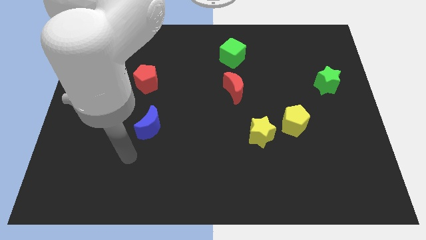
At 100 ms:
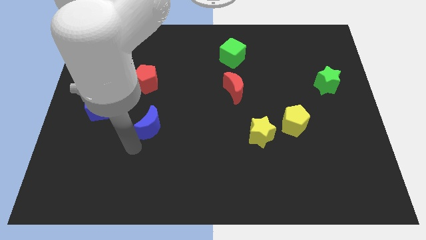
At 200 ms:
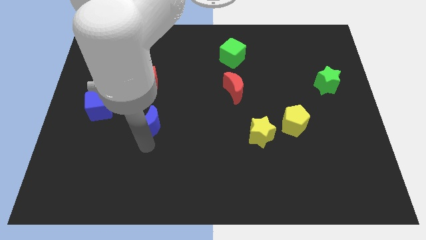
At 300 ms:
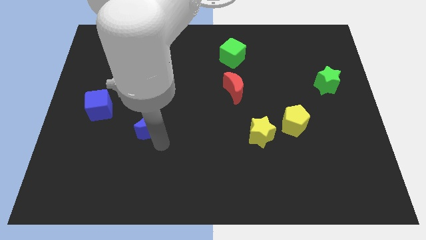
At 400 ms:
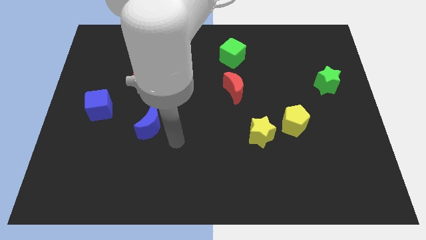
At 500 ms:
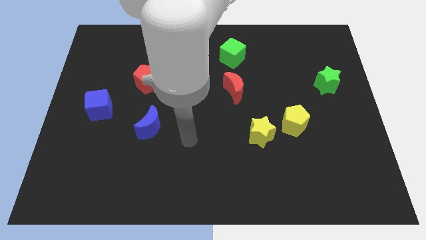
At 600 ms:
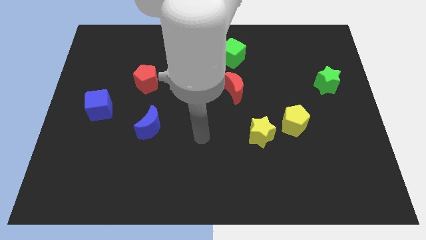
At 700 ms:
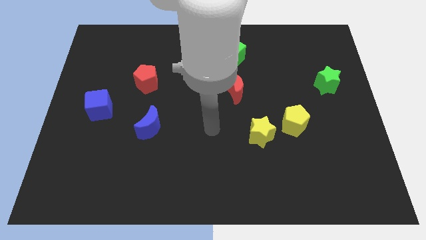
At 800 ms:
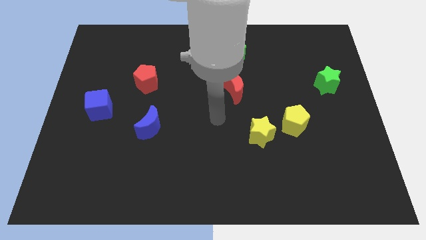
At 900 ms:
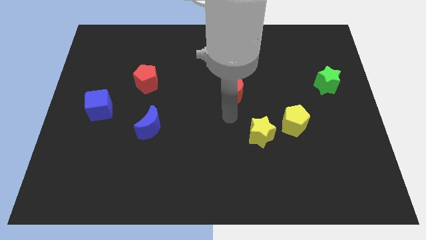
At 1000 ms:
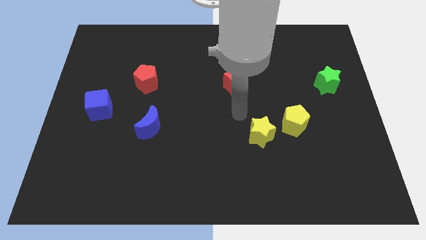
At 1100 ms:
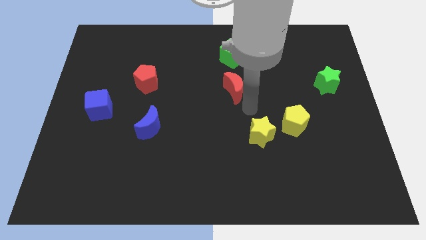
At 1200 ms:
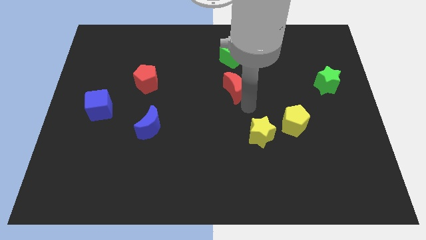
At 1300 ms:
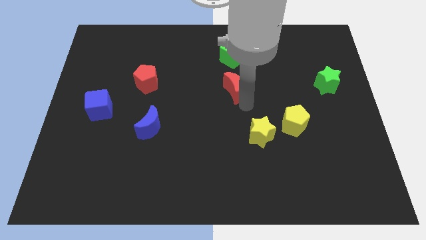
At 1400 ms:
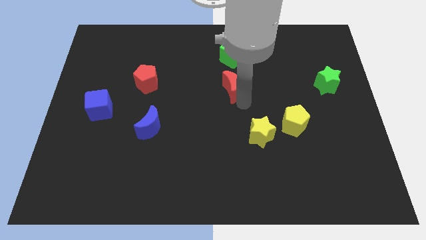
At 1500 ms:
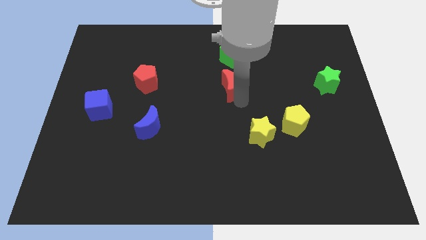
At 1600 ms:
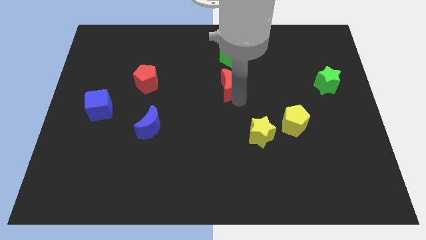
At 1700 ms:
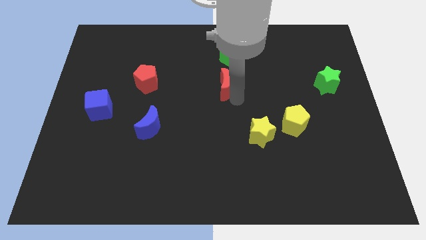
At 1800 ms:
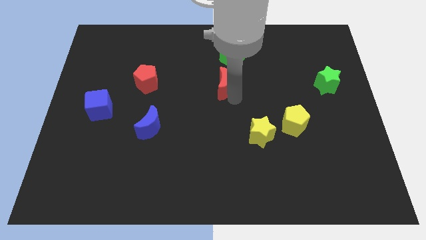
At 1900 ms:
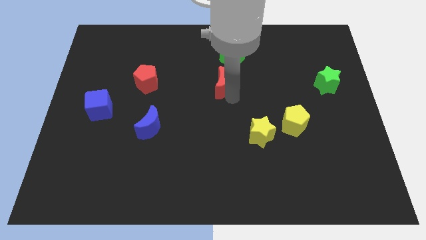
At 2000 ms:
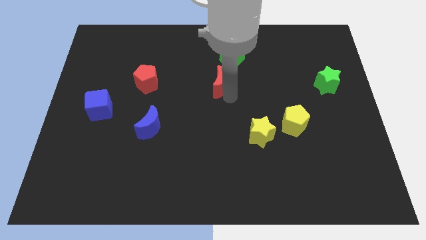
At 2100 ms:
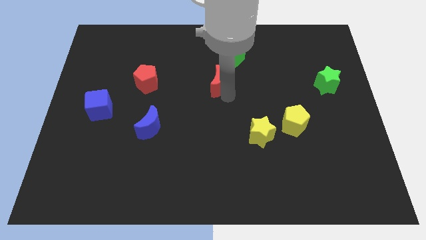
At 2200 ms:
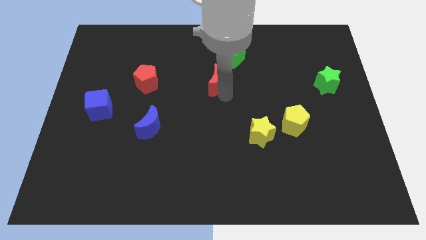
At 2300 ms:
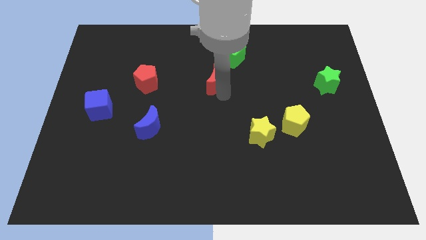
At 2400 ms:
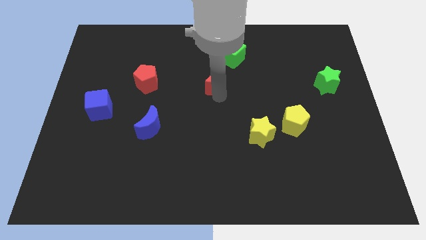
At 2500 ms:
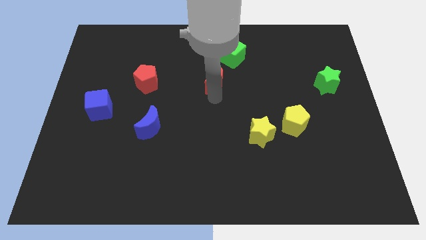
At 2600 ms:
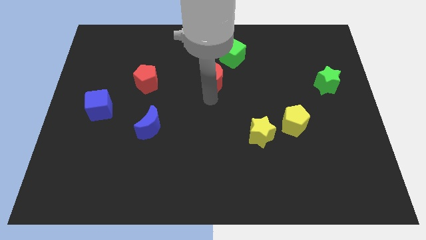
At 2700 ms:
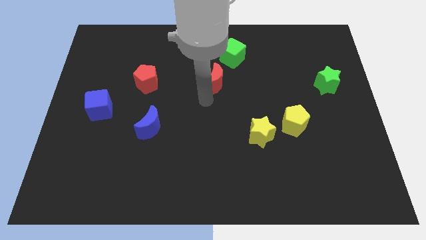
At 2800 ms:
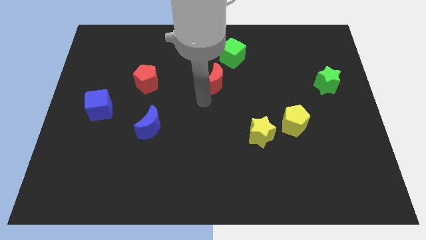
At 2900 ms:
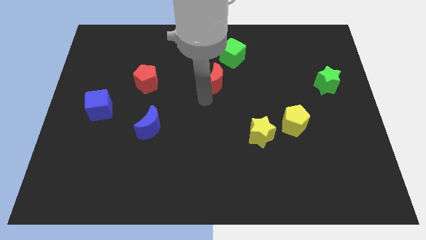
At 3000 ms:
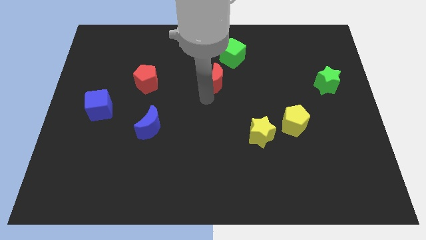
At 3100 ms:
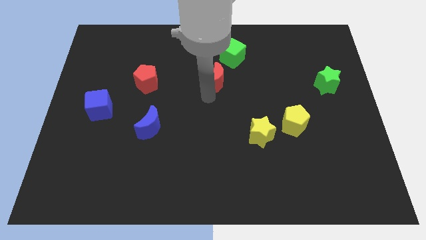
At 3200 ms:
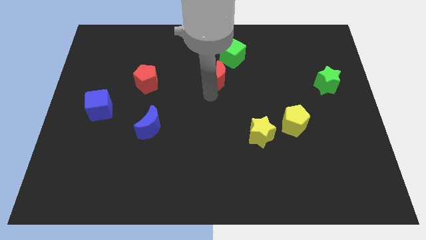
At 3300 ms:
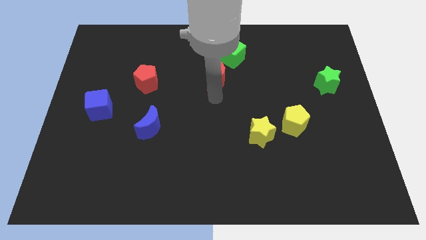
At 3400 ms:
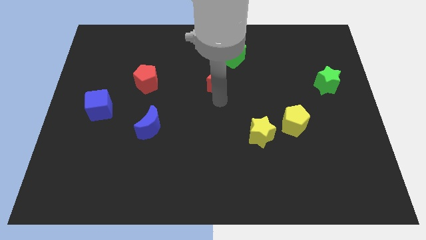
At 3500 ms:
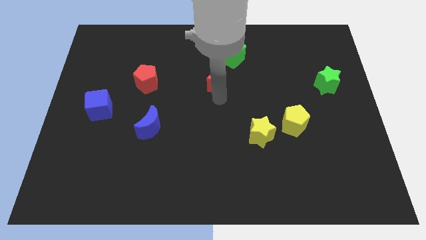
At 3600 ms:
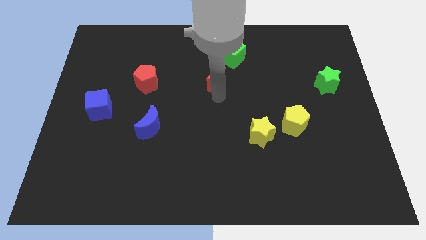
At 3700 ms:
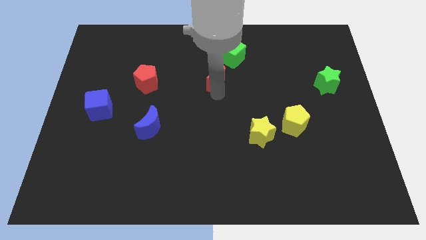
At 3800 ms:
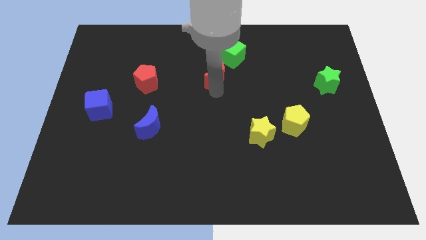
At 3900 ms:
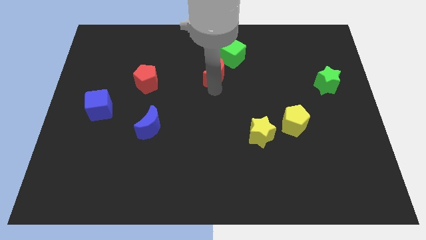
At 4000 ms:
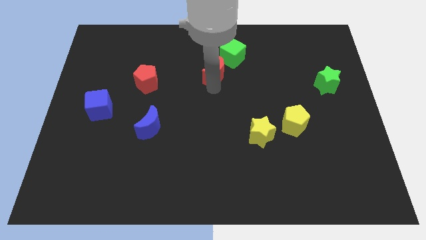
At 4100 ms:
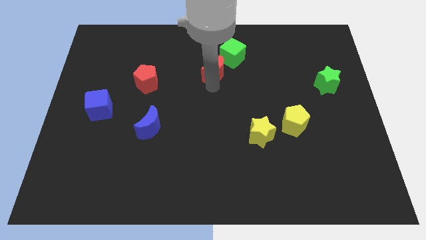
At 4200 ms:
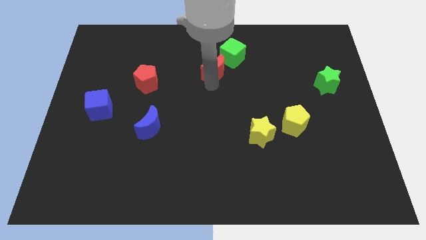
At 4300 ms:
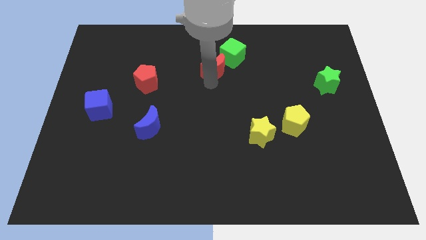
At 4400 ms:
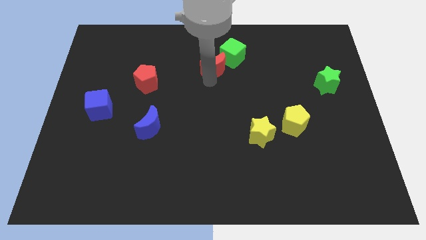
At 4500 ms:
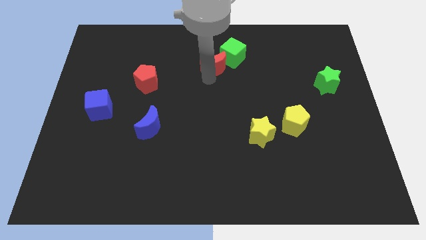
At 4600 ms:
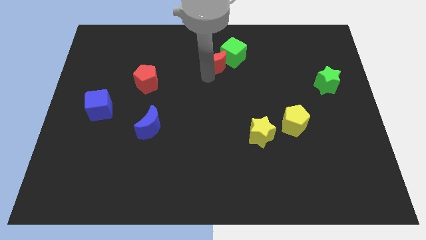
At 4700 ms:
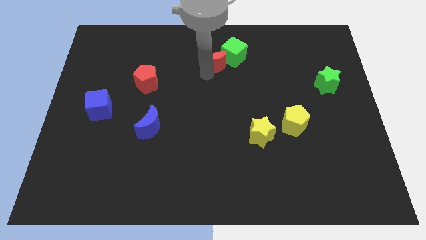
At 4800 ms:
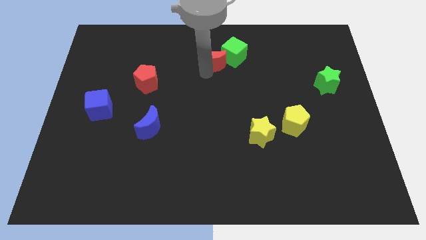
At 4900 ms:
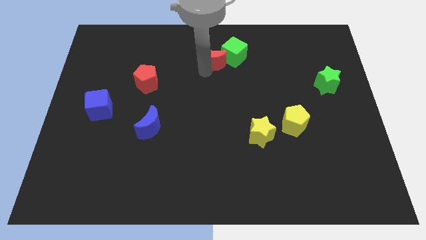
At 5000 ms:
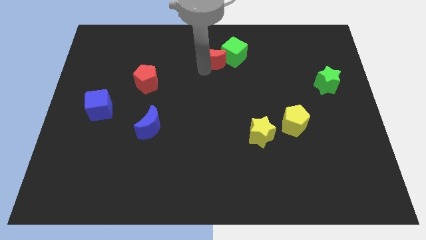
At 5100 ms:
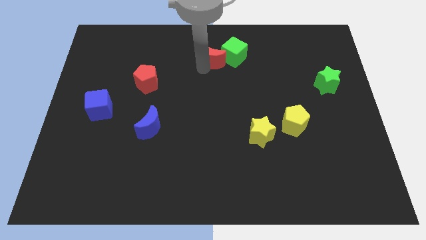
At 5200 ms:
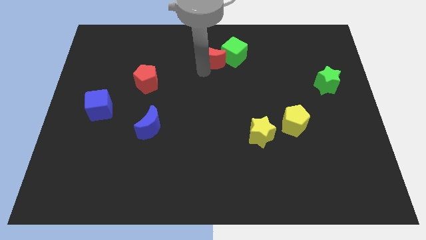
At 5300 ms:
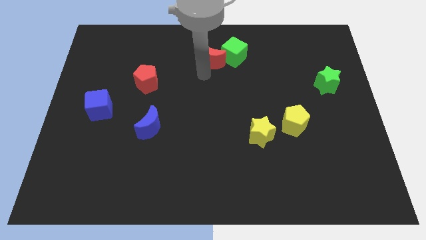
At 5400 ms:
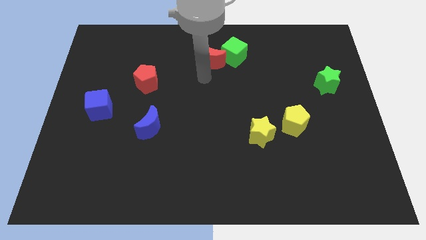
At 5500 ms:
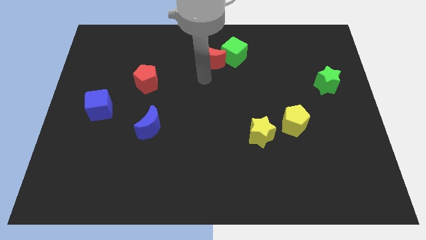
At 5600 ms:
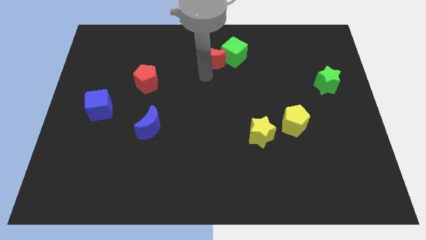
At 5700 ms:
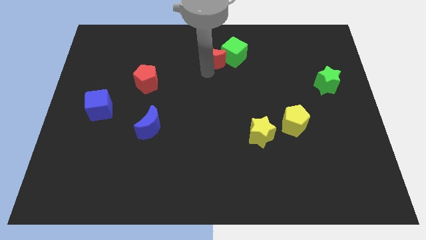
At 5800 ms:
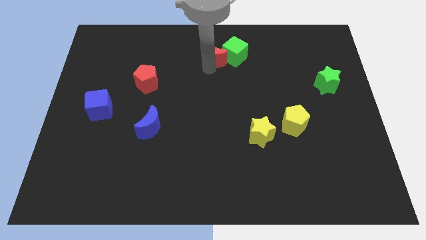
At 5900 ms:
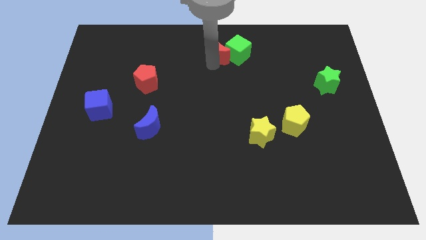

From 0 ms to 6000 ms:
move the red moon to the top side

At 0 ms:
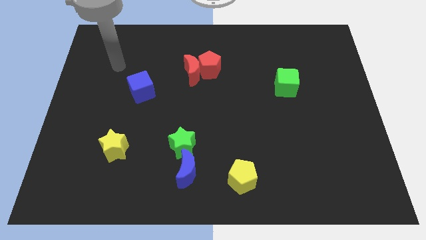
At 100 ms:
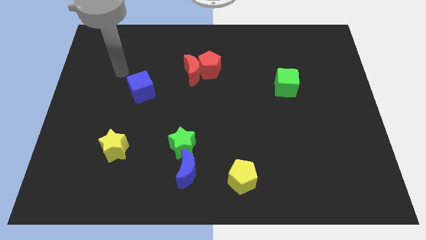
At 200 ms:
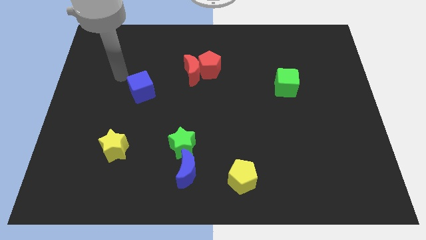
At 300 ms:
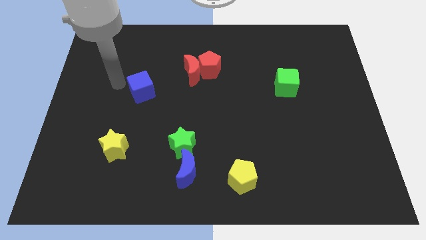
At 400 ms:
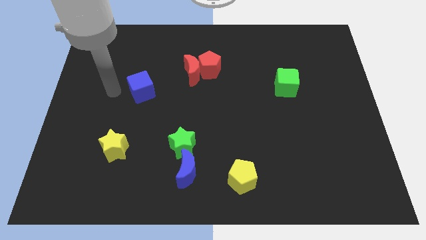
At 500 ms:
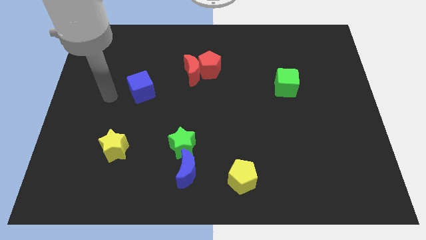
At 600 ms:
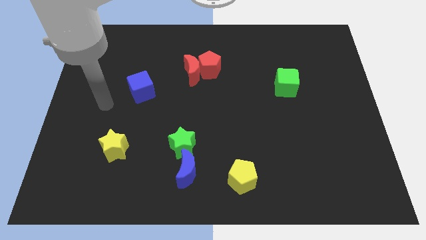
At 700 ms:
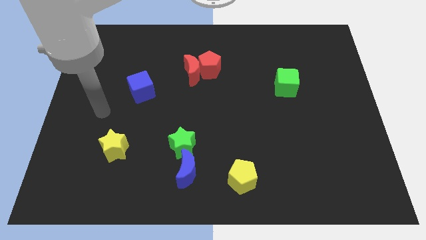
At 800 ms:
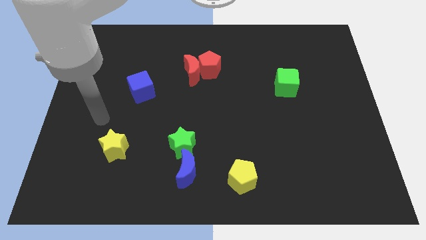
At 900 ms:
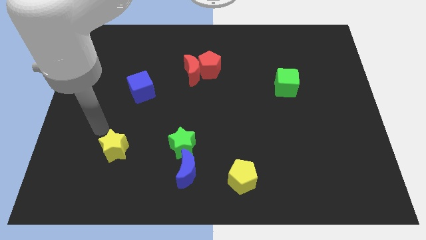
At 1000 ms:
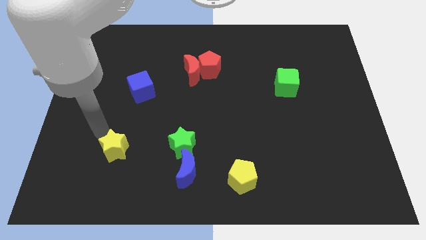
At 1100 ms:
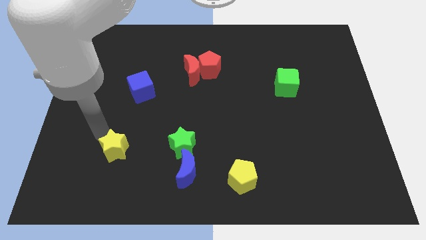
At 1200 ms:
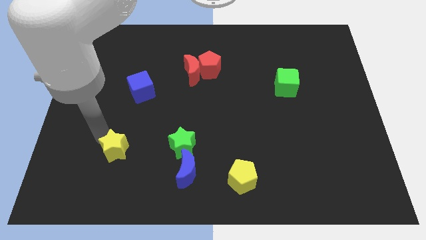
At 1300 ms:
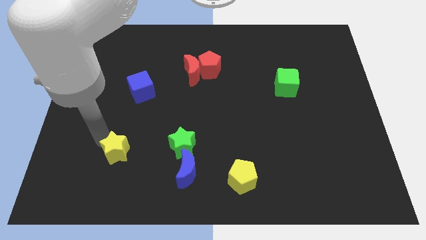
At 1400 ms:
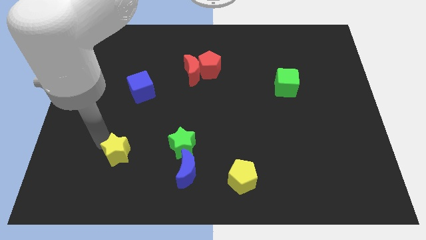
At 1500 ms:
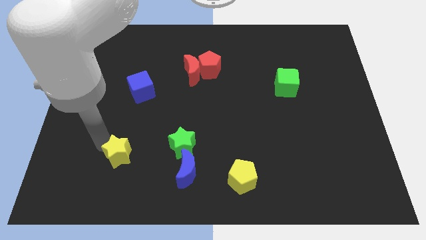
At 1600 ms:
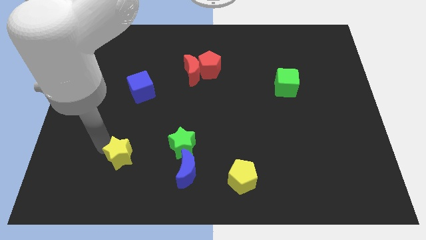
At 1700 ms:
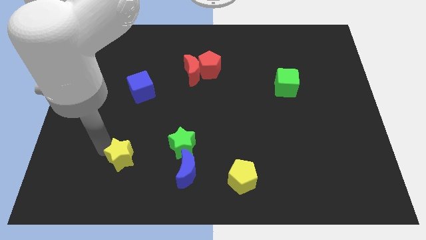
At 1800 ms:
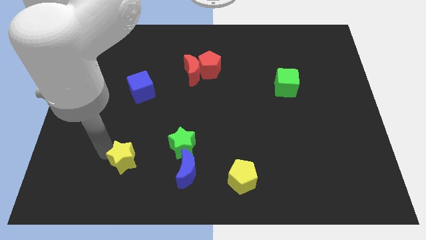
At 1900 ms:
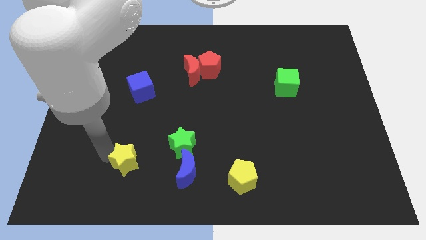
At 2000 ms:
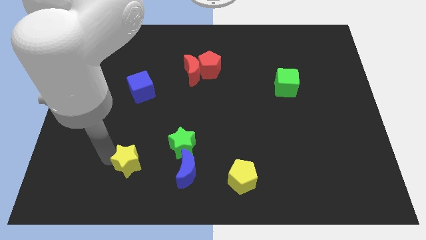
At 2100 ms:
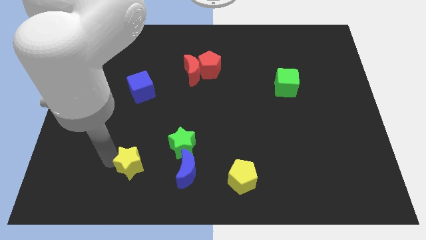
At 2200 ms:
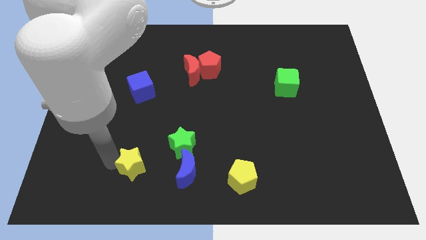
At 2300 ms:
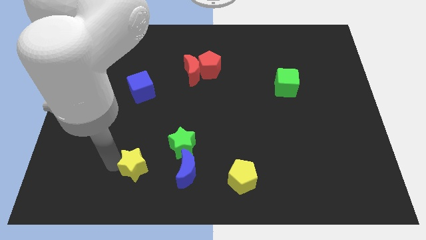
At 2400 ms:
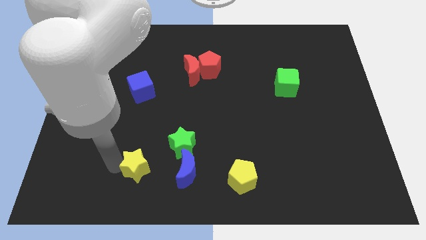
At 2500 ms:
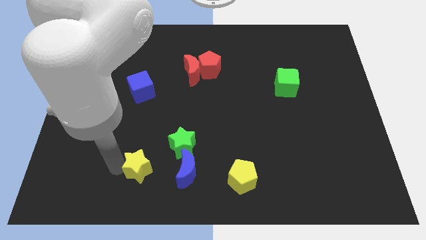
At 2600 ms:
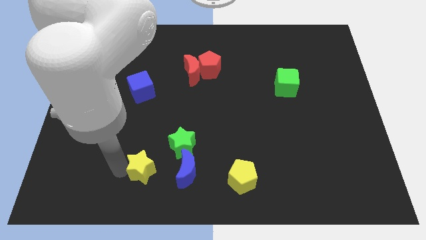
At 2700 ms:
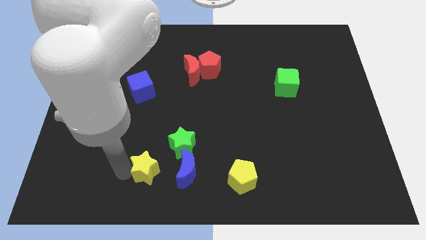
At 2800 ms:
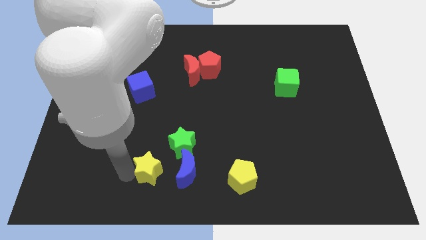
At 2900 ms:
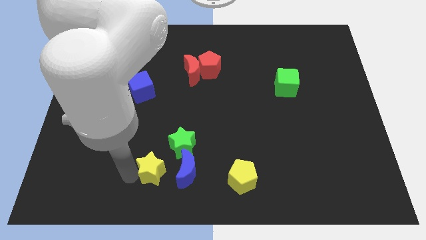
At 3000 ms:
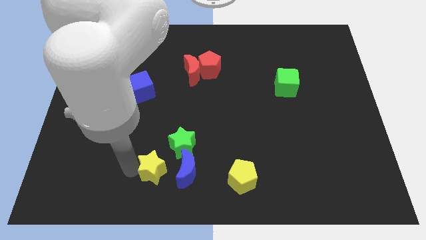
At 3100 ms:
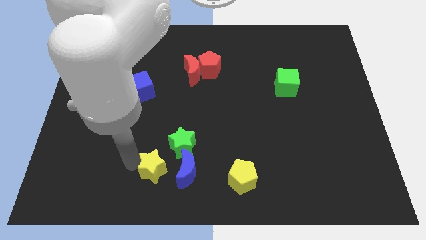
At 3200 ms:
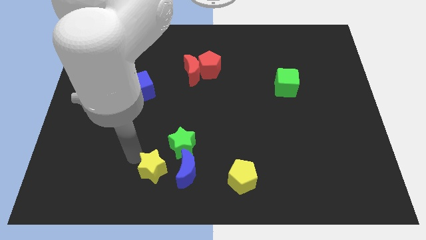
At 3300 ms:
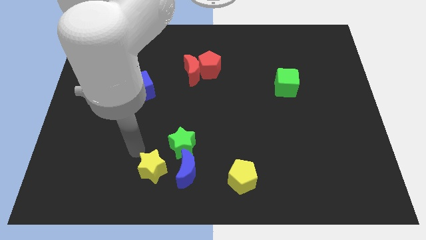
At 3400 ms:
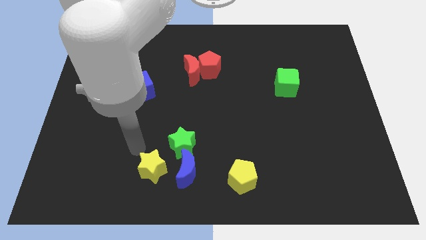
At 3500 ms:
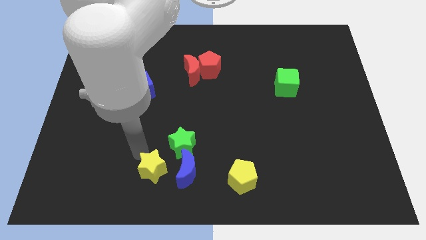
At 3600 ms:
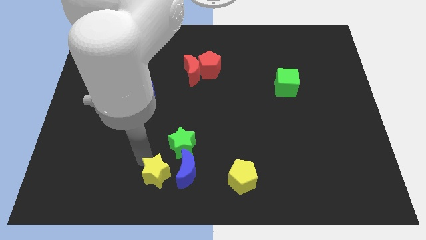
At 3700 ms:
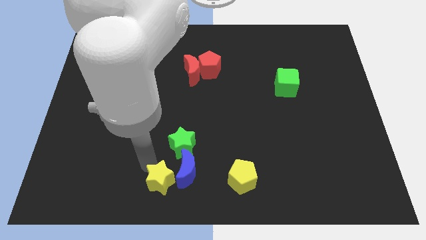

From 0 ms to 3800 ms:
slide the yellow star to the bottom side
